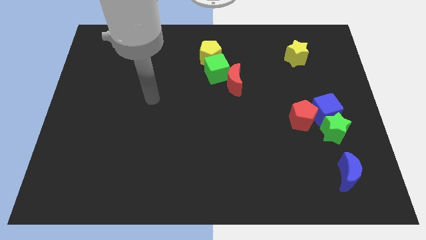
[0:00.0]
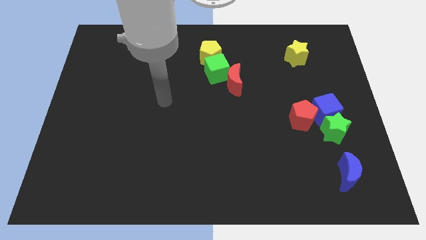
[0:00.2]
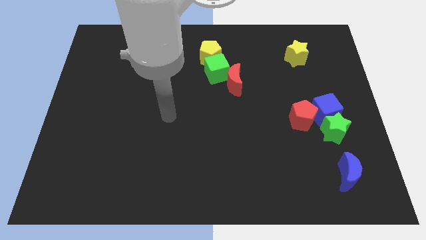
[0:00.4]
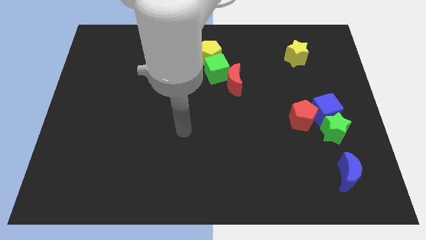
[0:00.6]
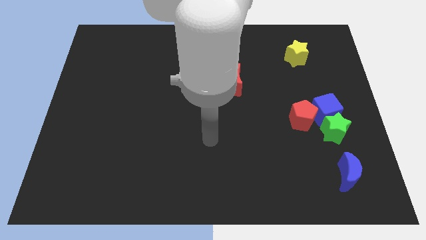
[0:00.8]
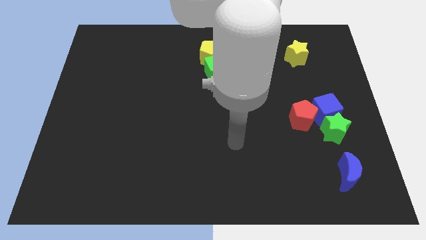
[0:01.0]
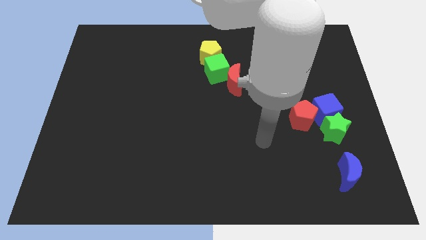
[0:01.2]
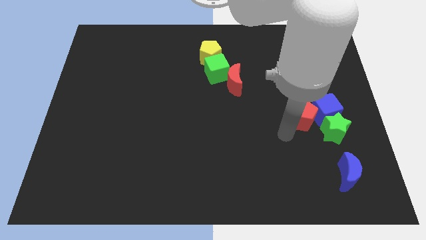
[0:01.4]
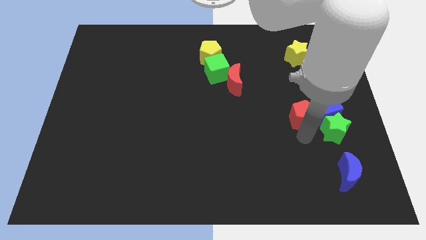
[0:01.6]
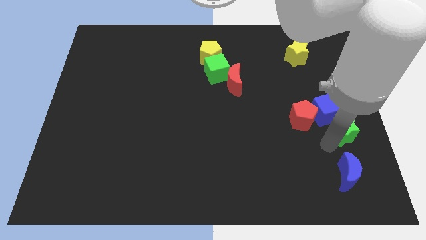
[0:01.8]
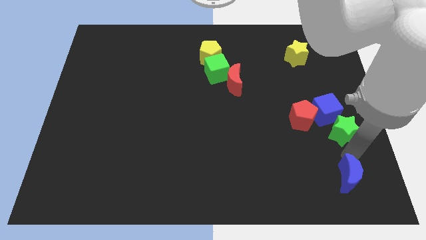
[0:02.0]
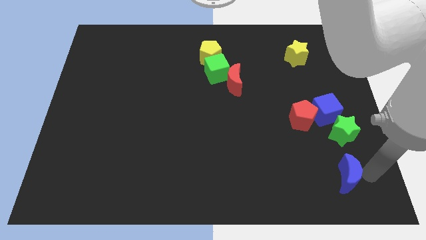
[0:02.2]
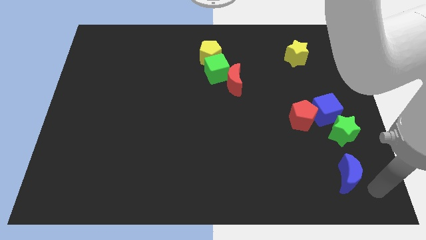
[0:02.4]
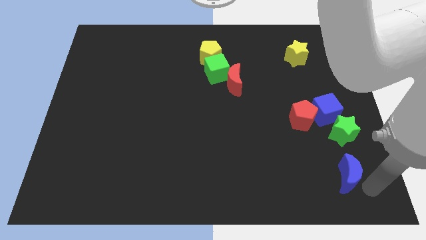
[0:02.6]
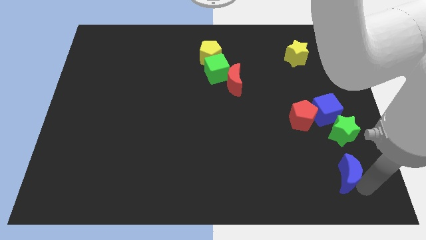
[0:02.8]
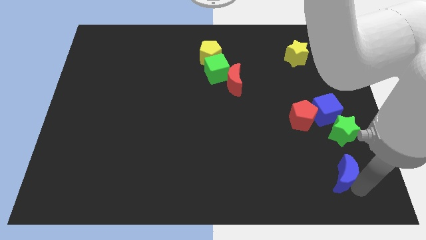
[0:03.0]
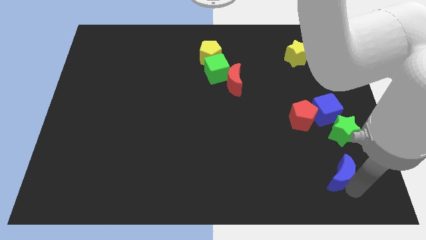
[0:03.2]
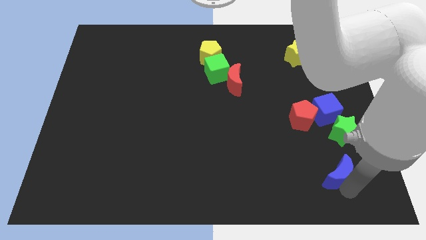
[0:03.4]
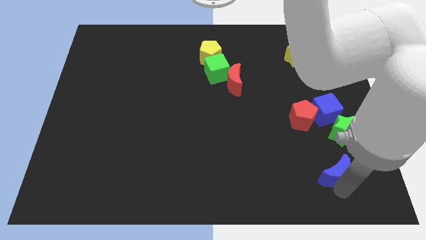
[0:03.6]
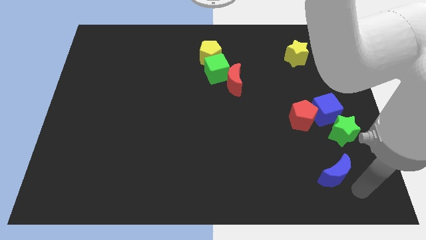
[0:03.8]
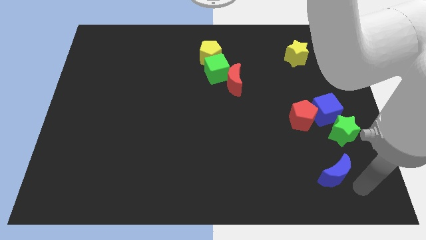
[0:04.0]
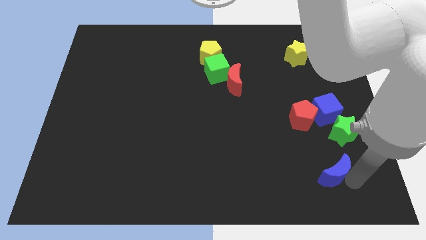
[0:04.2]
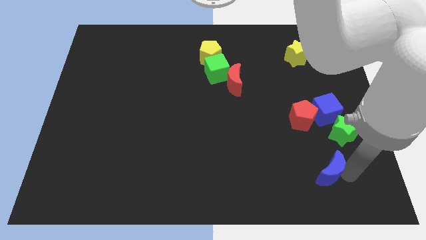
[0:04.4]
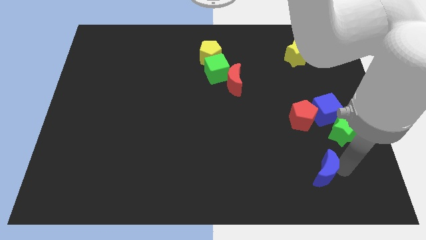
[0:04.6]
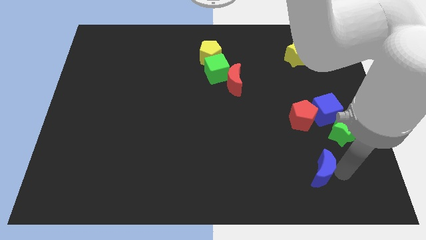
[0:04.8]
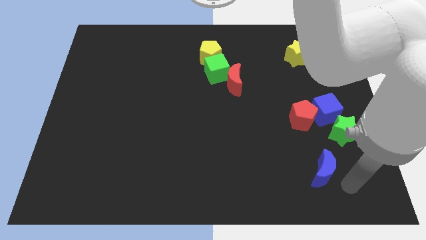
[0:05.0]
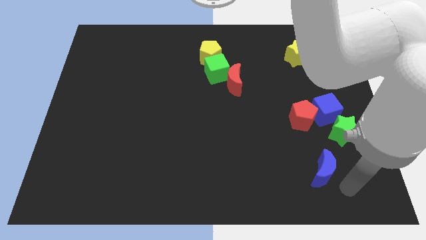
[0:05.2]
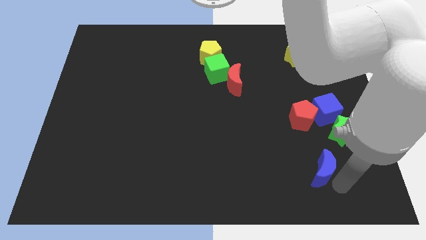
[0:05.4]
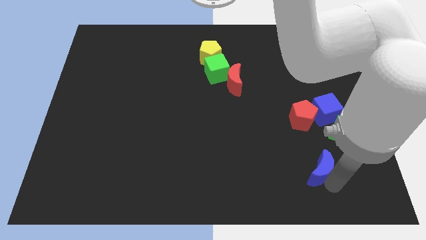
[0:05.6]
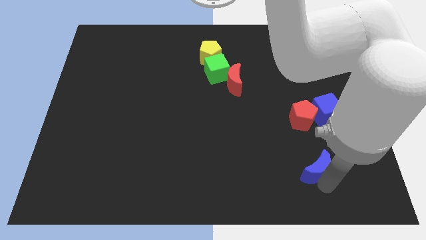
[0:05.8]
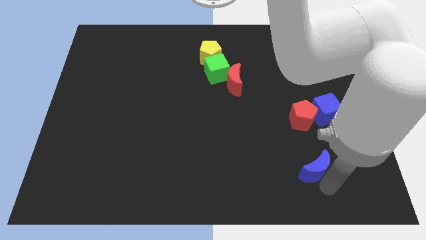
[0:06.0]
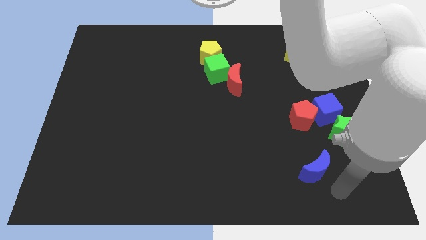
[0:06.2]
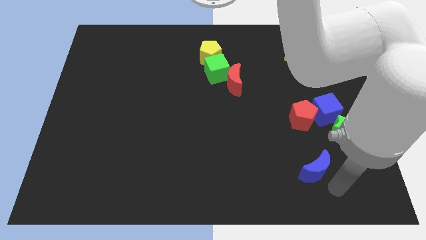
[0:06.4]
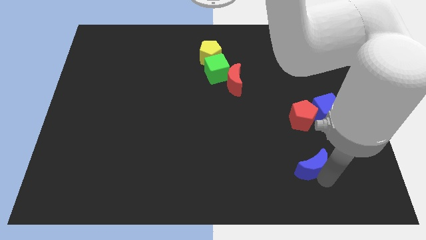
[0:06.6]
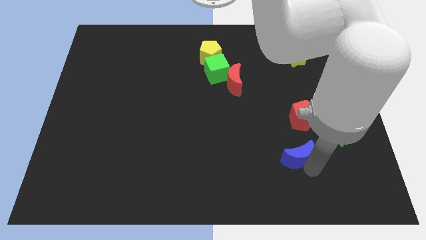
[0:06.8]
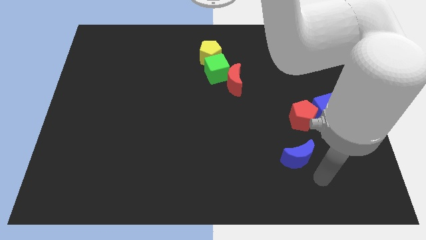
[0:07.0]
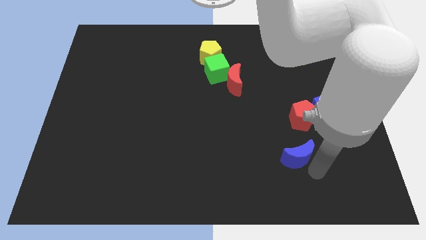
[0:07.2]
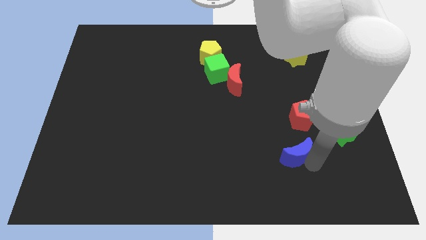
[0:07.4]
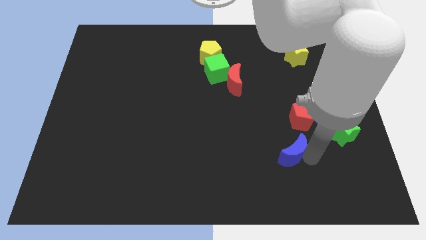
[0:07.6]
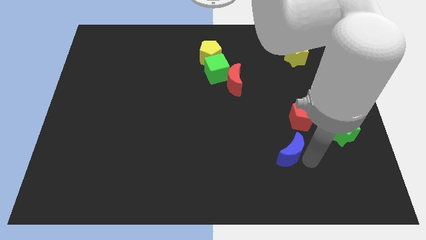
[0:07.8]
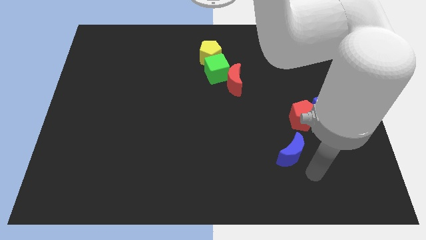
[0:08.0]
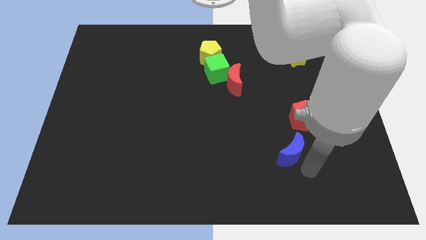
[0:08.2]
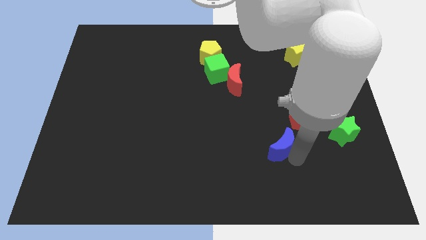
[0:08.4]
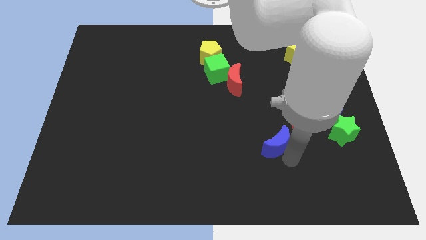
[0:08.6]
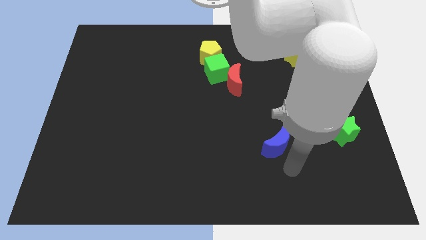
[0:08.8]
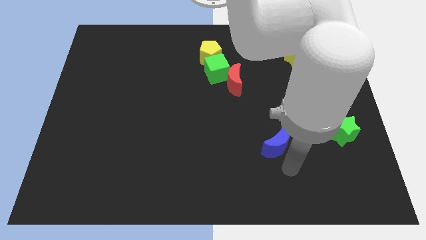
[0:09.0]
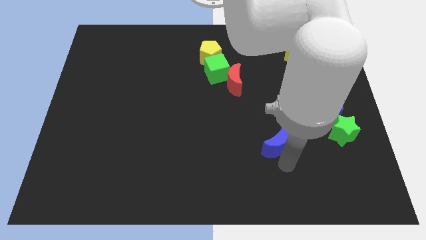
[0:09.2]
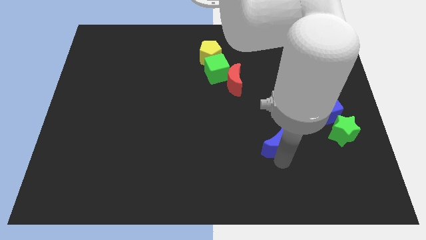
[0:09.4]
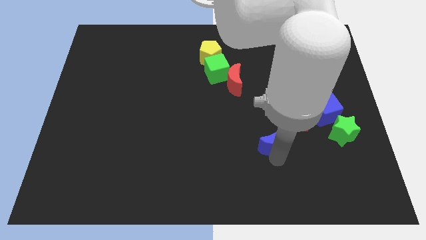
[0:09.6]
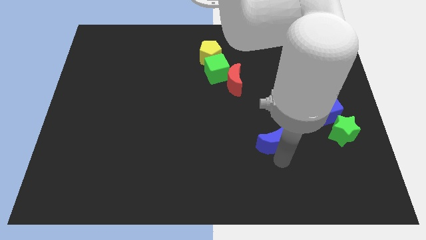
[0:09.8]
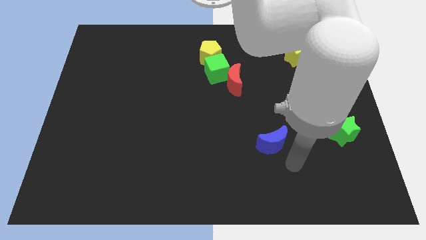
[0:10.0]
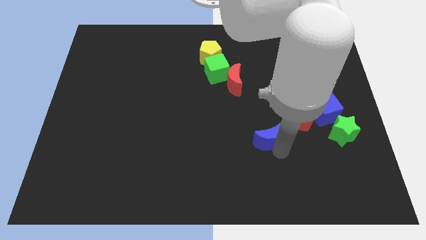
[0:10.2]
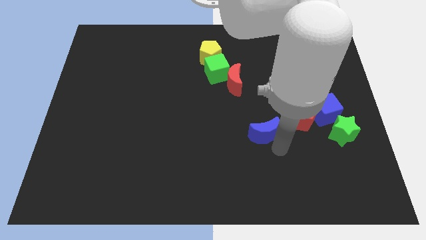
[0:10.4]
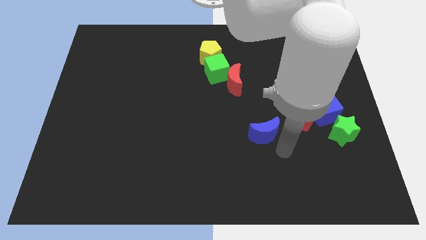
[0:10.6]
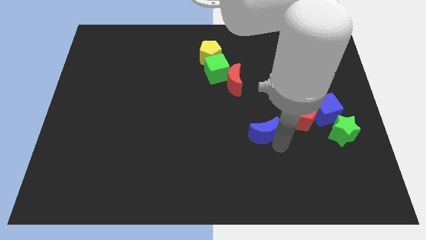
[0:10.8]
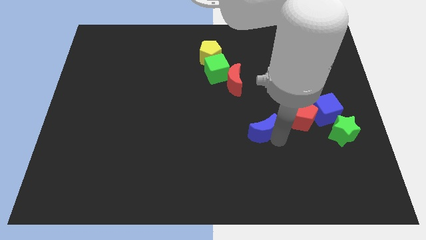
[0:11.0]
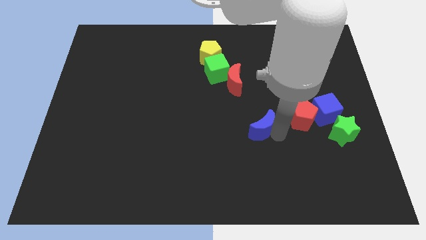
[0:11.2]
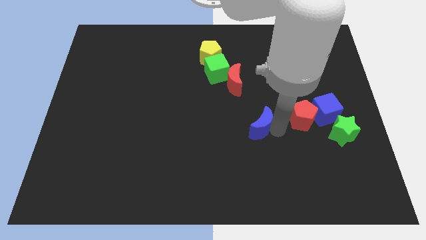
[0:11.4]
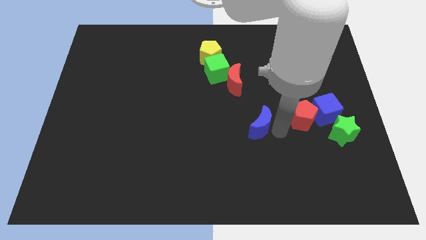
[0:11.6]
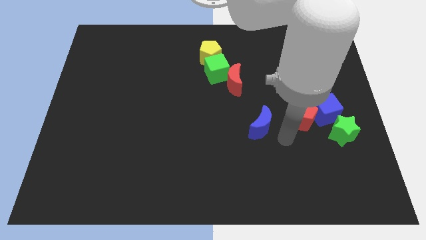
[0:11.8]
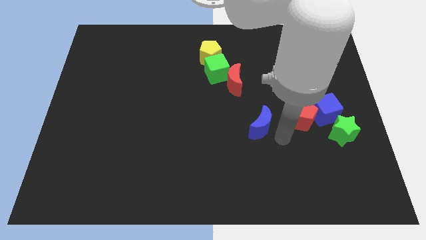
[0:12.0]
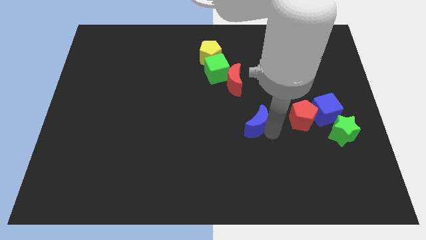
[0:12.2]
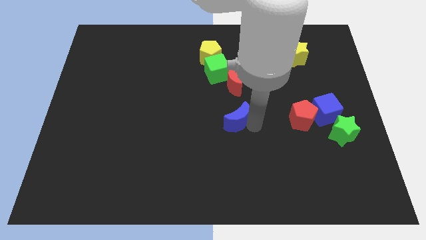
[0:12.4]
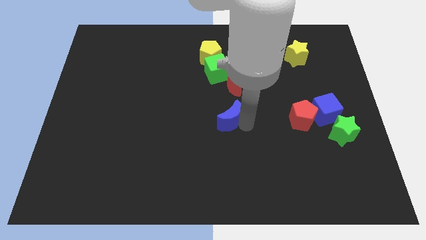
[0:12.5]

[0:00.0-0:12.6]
put the blue moon to the bottom side of the green cube

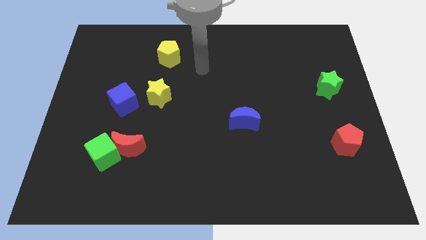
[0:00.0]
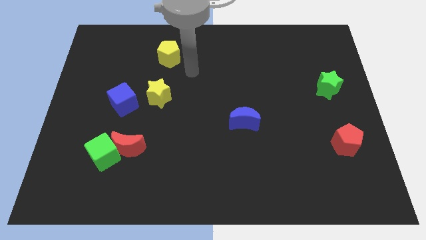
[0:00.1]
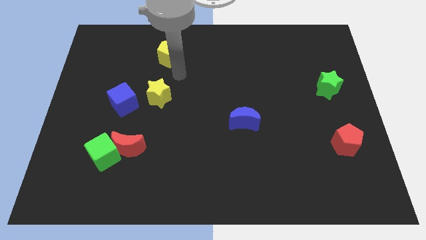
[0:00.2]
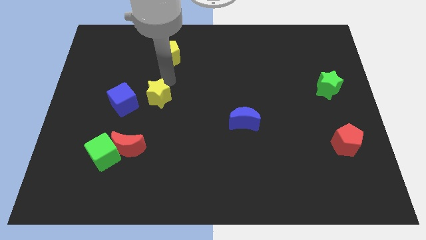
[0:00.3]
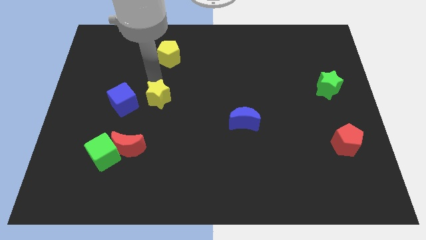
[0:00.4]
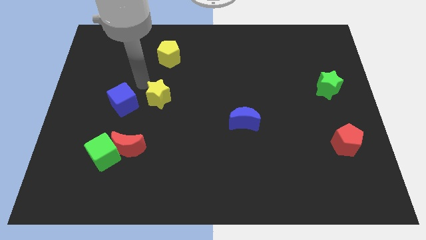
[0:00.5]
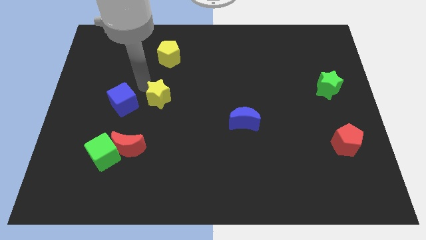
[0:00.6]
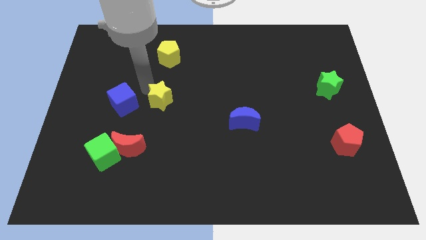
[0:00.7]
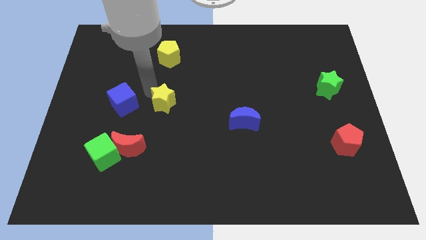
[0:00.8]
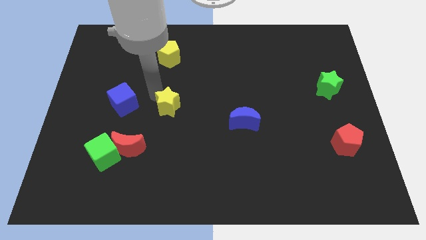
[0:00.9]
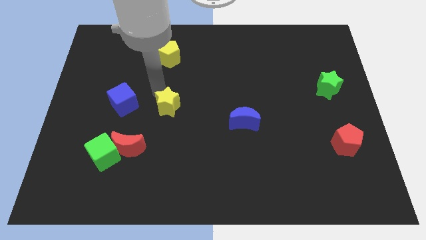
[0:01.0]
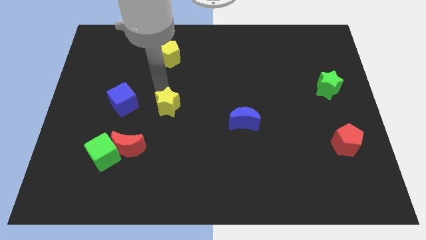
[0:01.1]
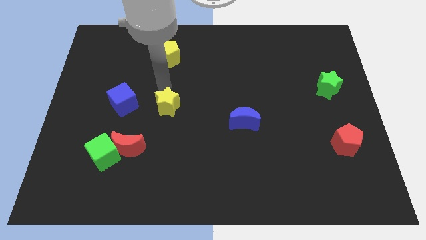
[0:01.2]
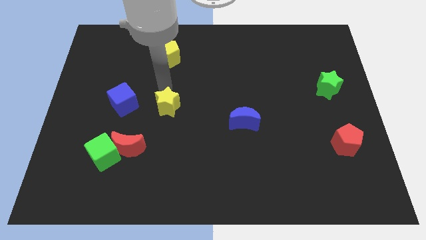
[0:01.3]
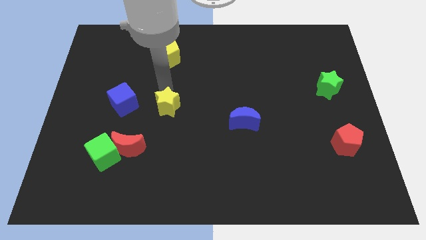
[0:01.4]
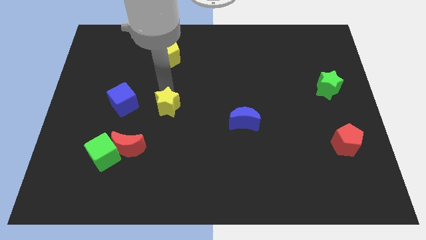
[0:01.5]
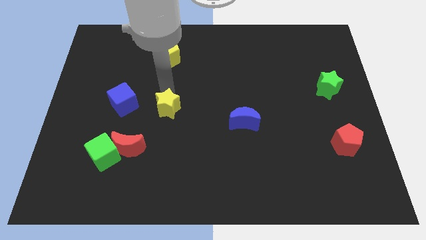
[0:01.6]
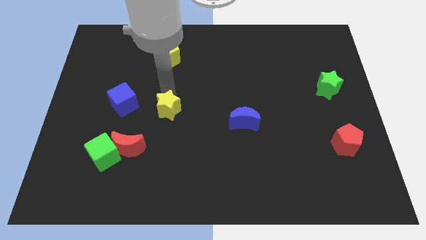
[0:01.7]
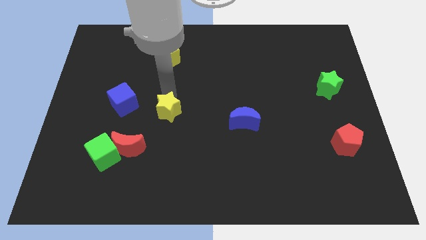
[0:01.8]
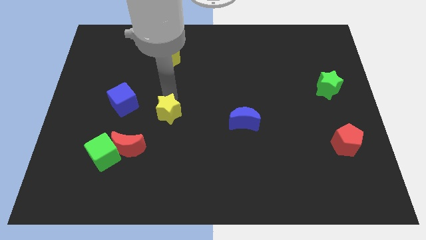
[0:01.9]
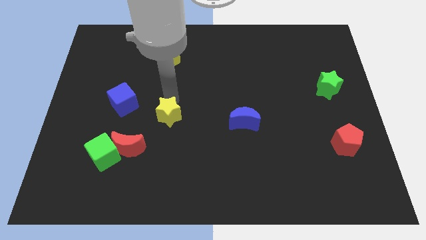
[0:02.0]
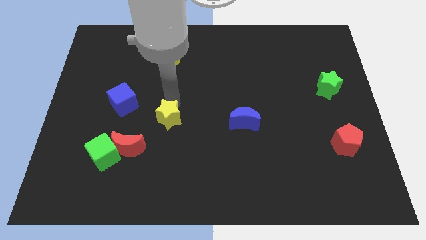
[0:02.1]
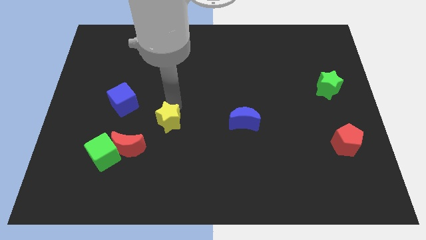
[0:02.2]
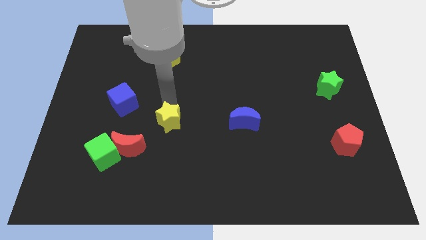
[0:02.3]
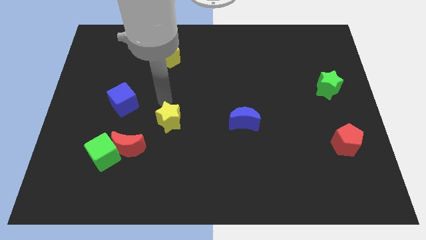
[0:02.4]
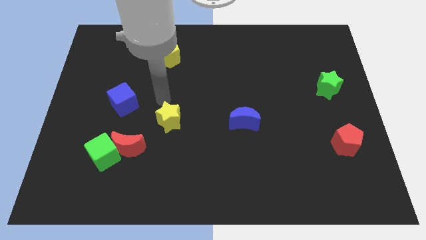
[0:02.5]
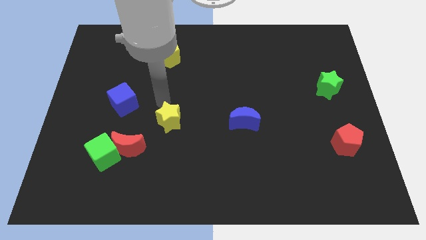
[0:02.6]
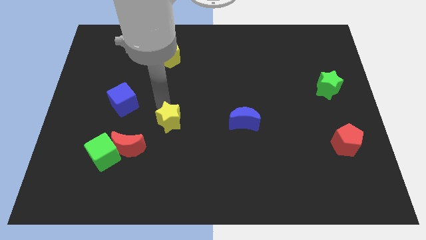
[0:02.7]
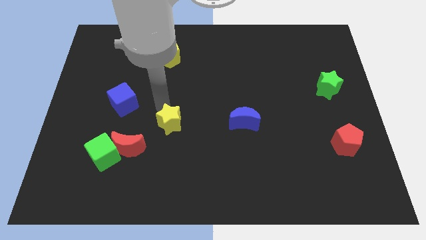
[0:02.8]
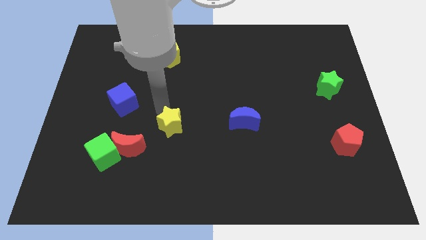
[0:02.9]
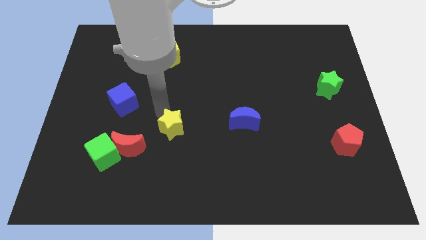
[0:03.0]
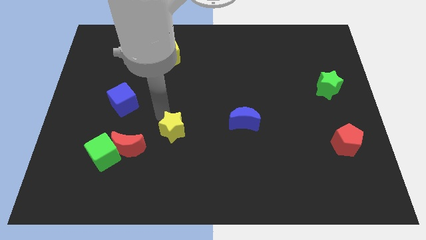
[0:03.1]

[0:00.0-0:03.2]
move the yellow star to the right of the red moon
